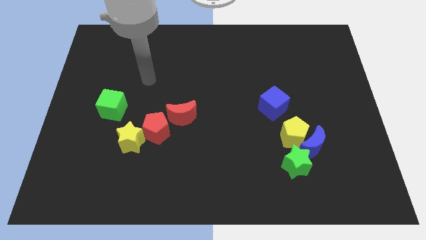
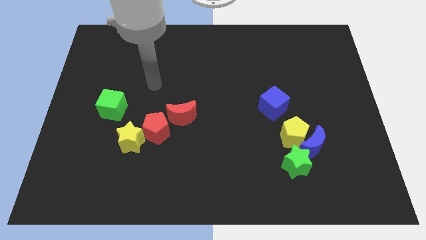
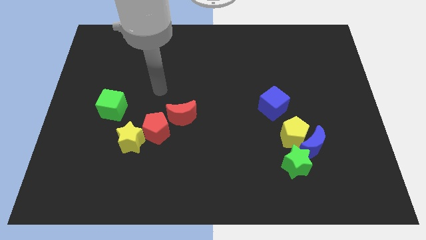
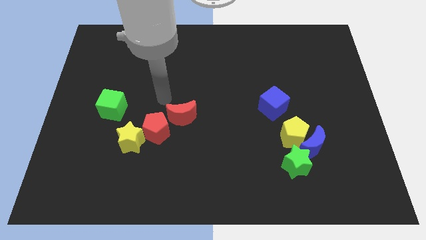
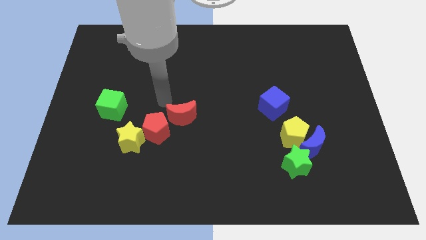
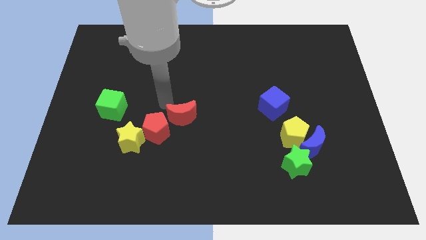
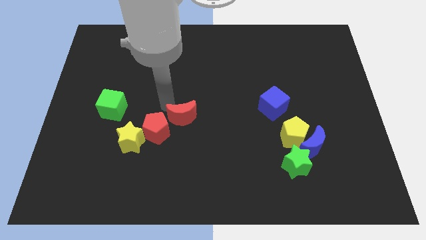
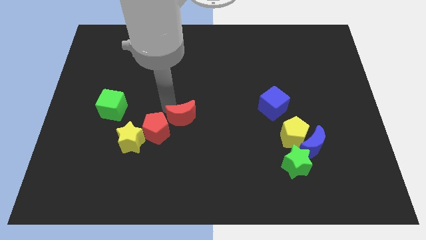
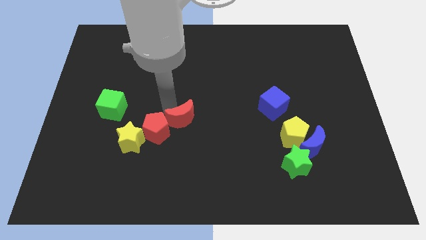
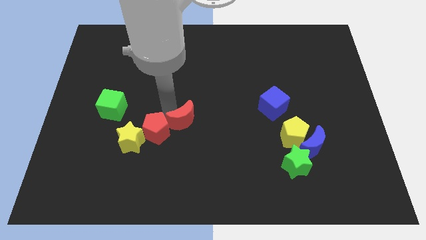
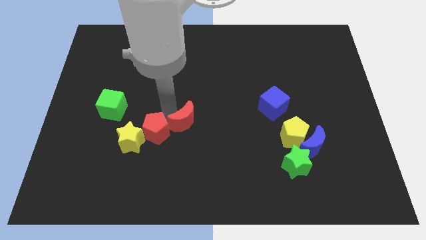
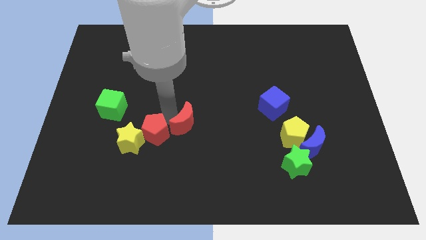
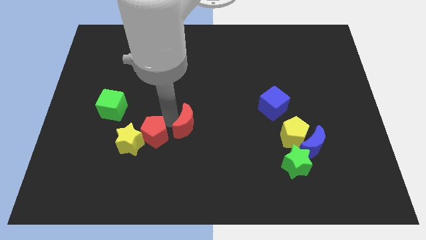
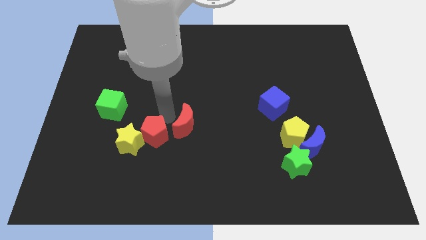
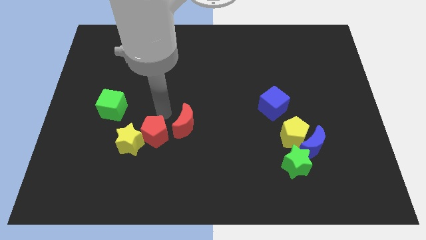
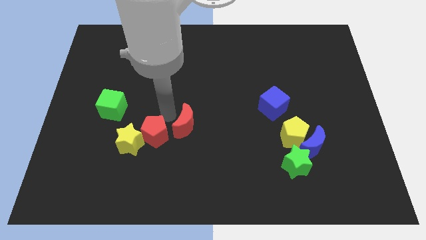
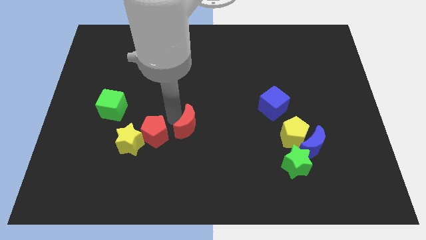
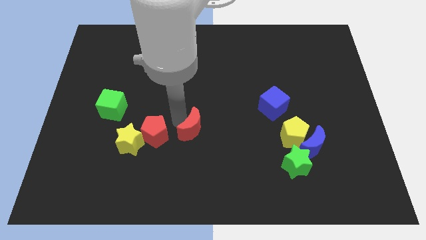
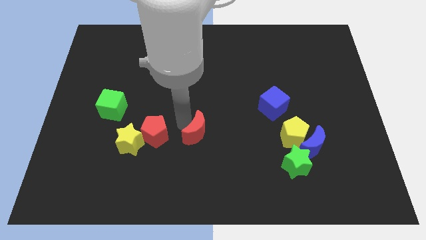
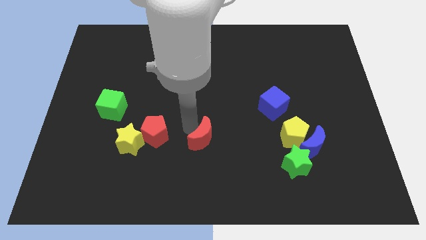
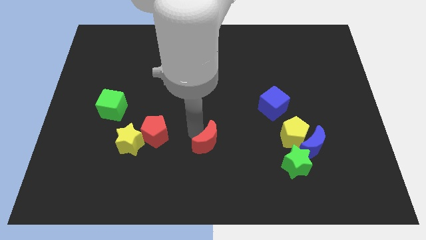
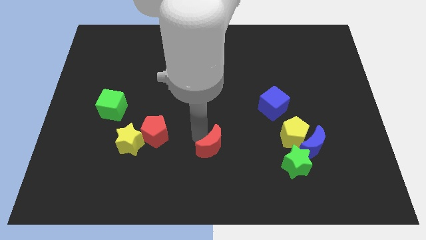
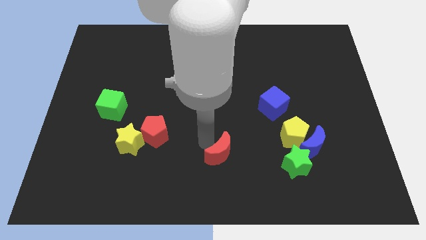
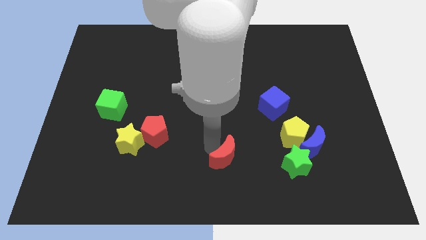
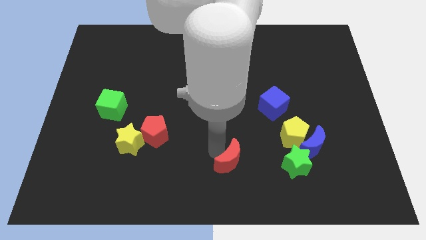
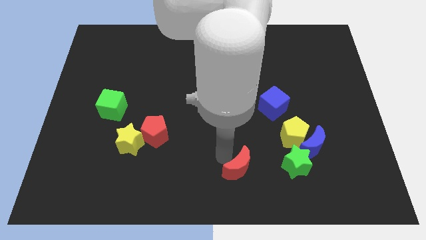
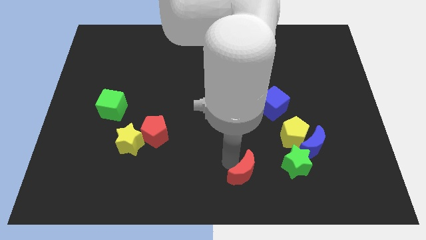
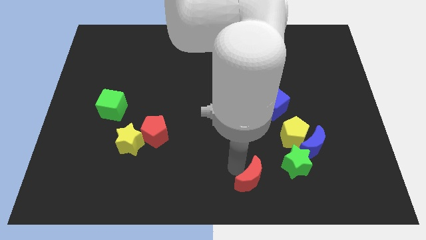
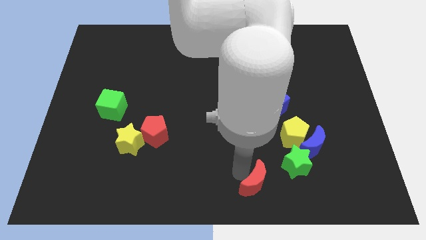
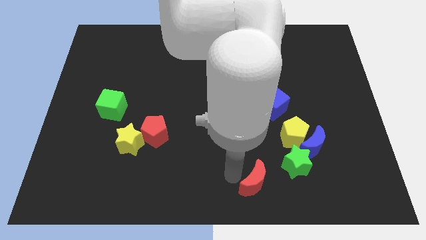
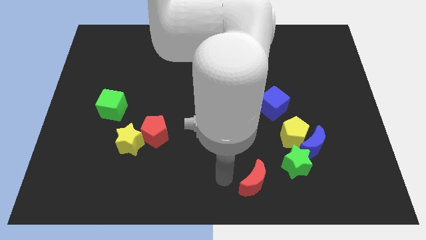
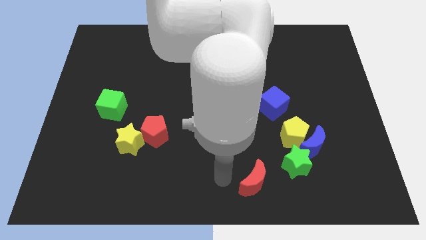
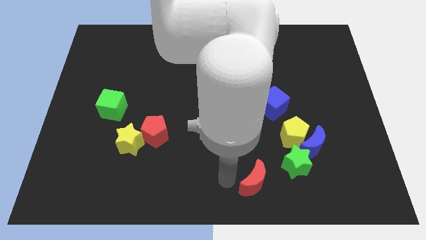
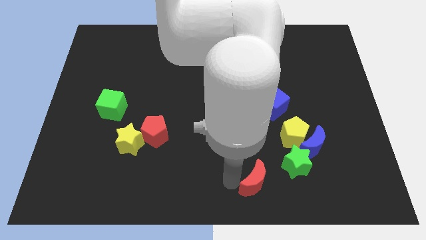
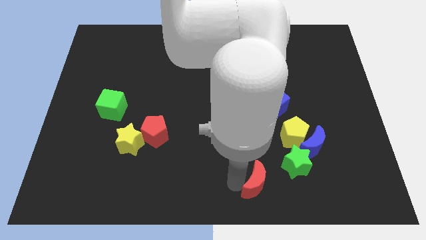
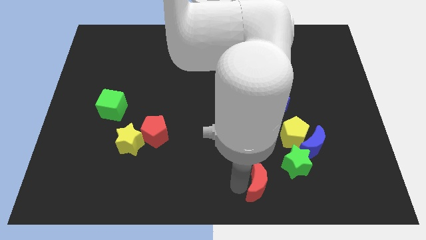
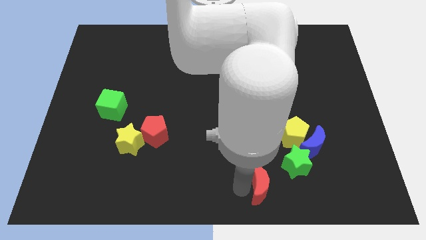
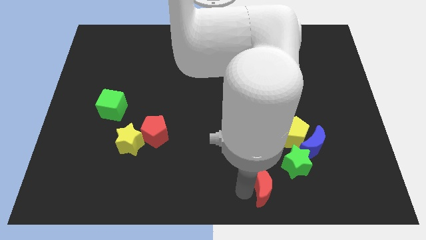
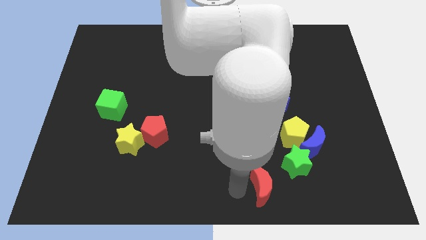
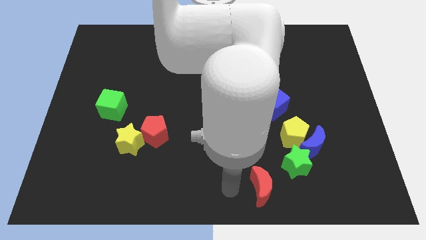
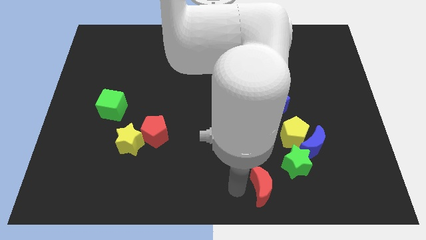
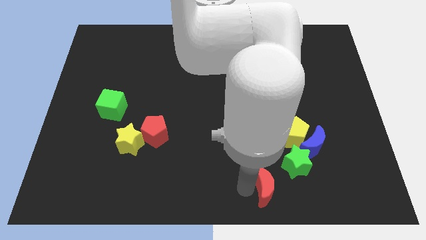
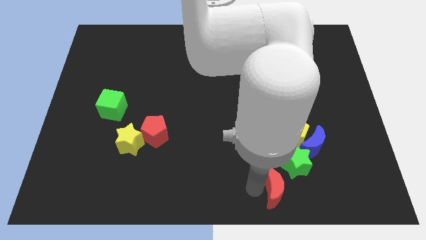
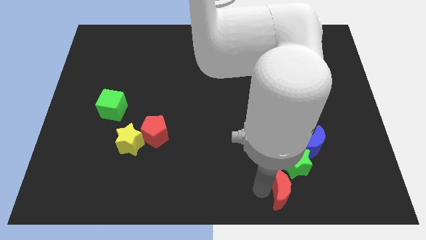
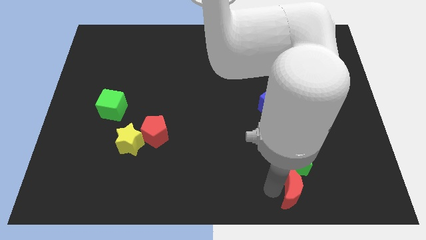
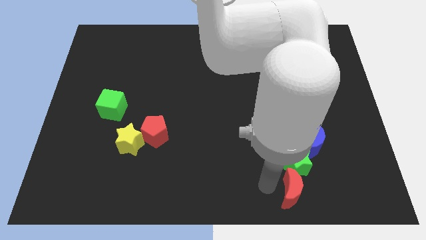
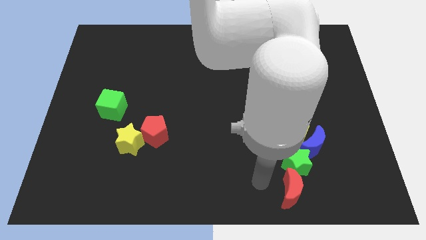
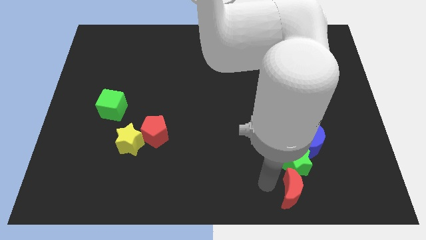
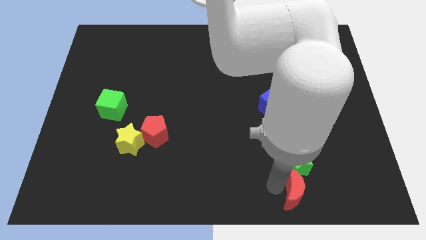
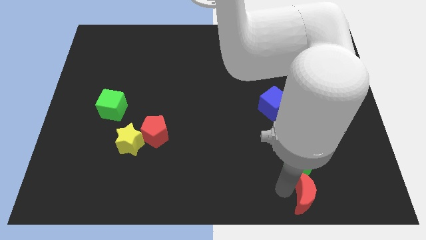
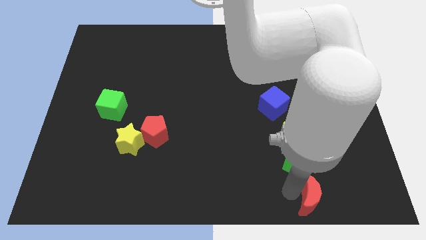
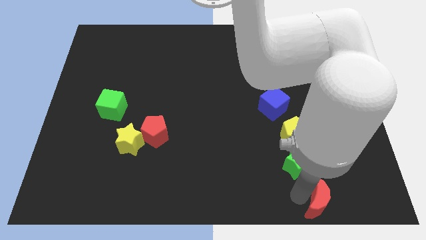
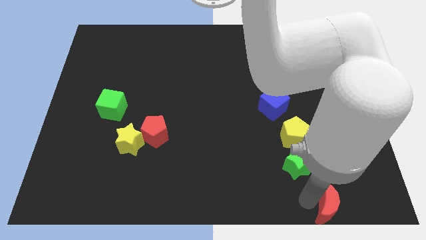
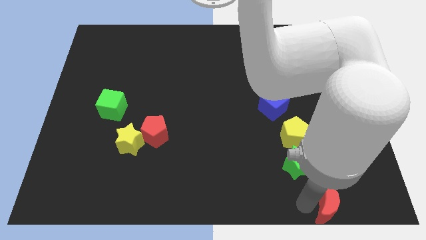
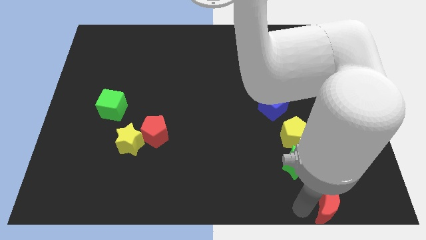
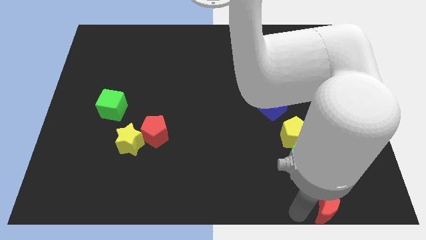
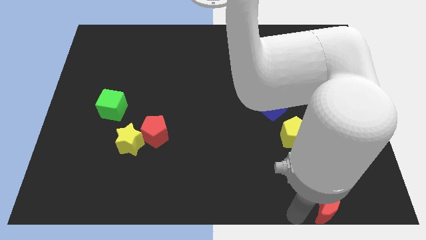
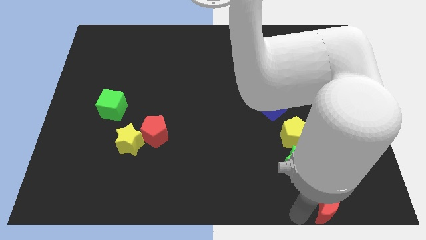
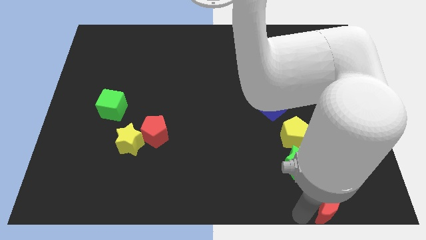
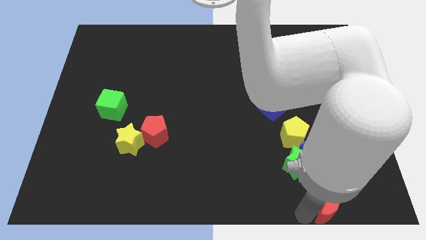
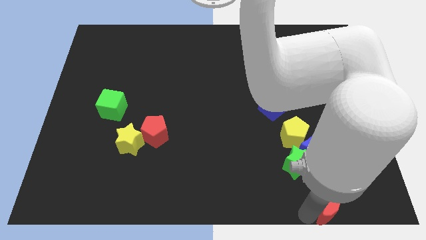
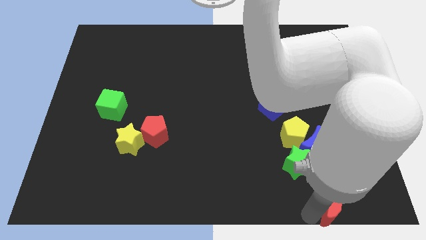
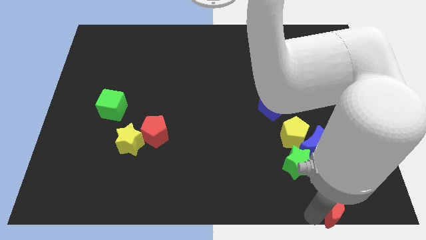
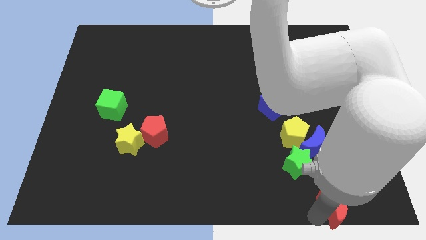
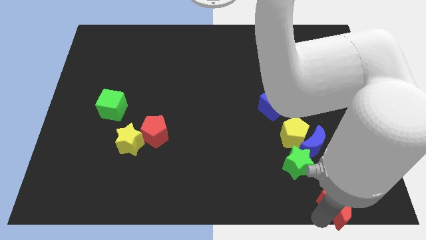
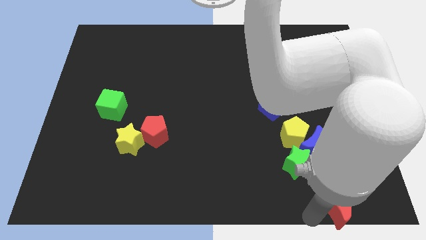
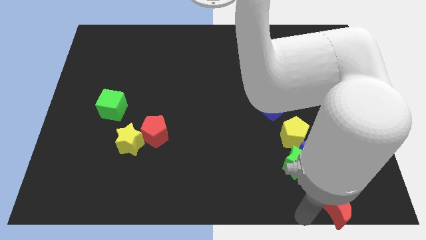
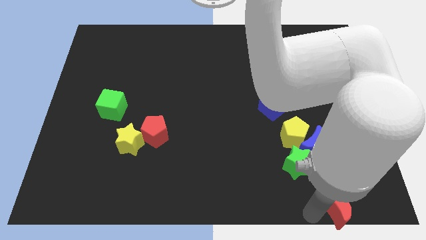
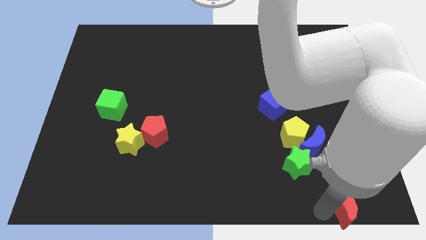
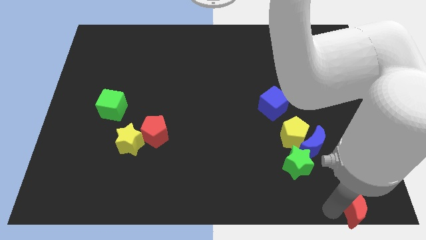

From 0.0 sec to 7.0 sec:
slide the red moon to the bottom right

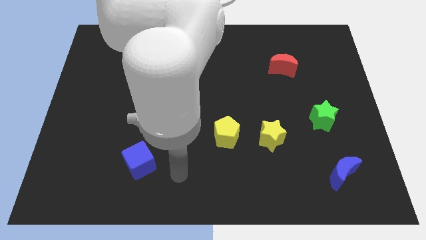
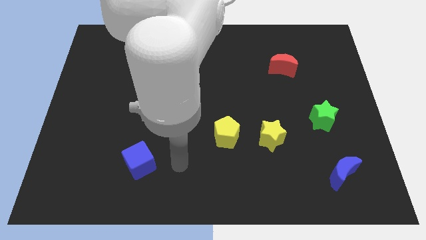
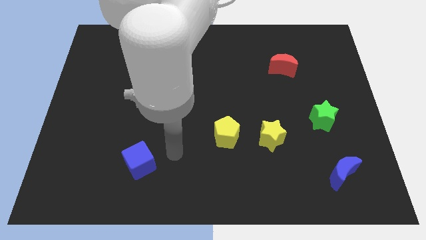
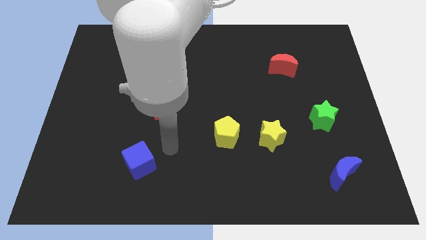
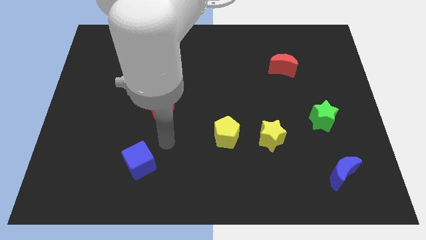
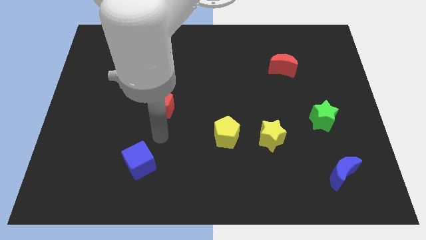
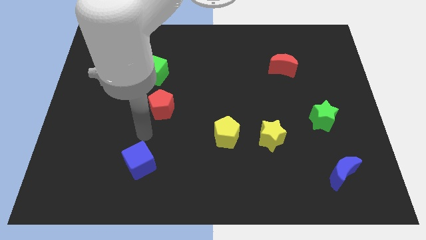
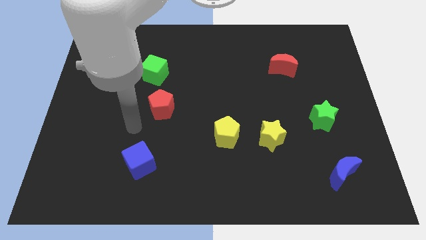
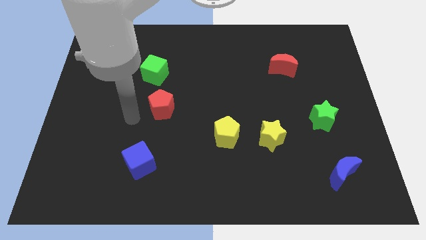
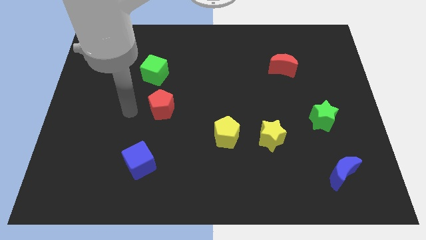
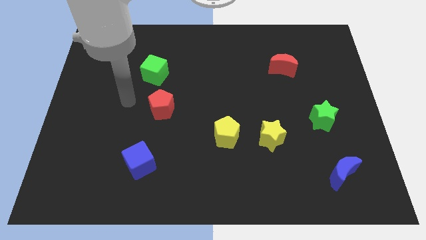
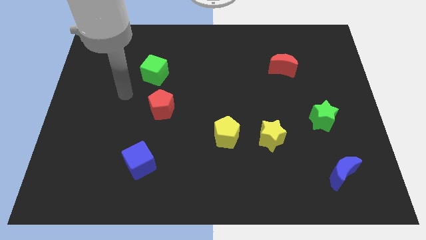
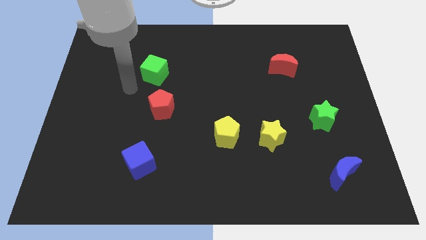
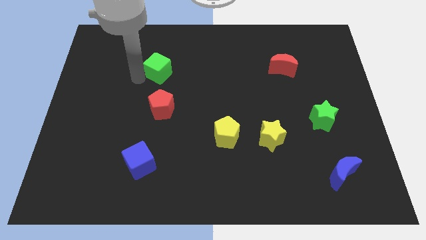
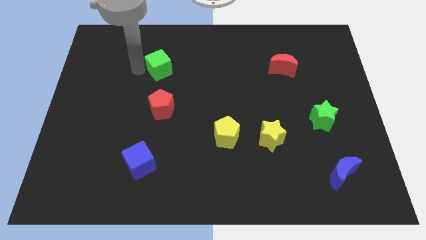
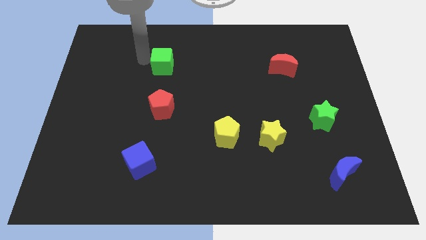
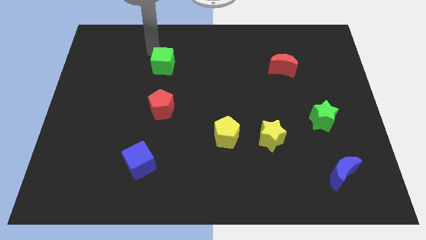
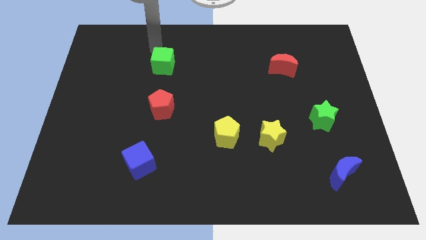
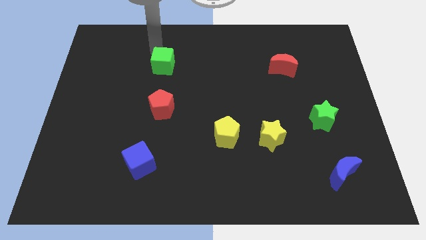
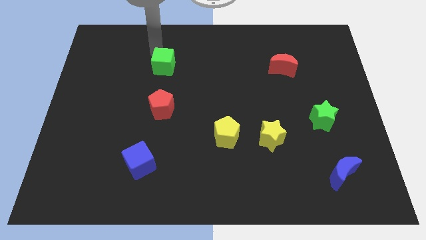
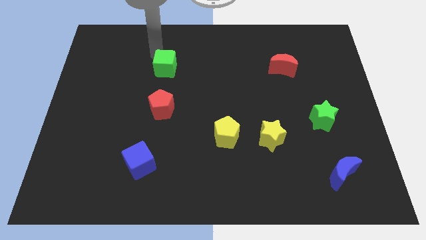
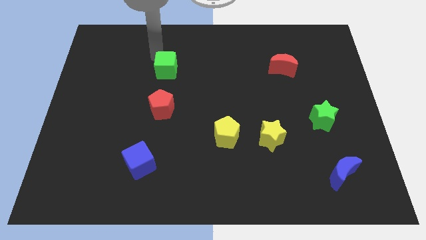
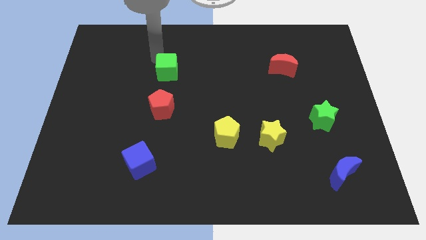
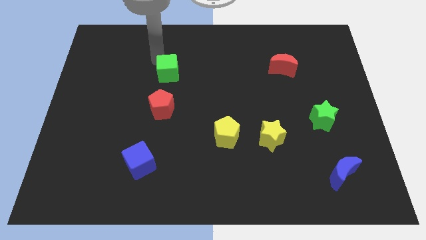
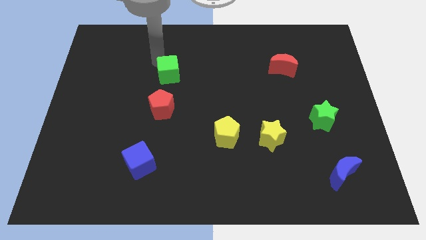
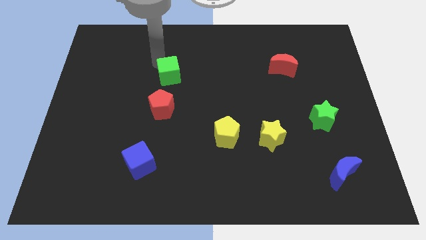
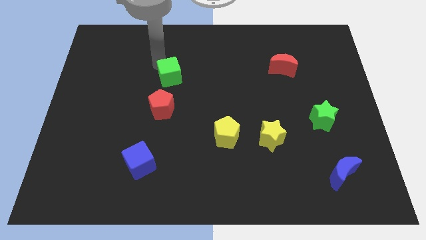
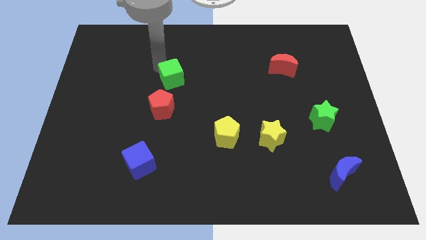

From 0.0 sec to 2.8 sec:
move the green cube to the middle of the board
